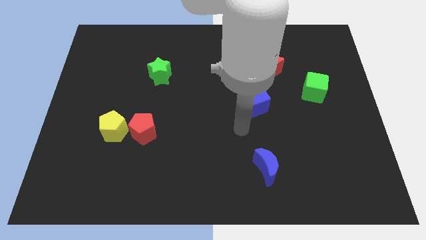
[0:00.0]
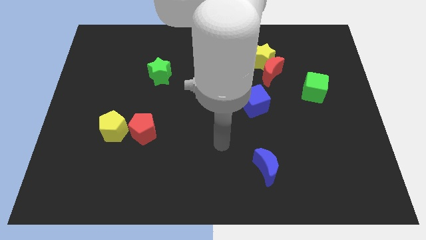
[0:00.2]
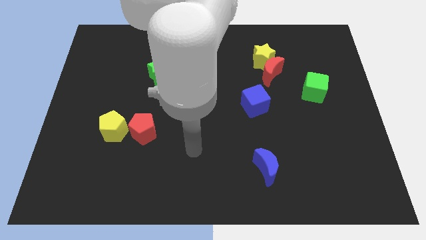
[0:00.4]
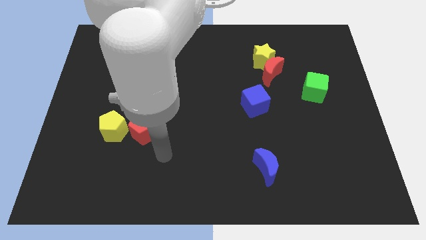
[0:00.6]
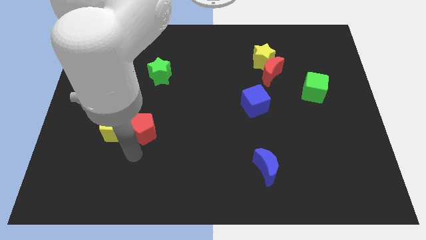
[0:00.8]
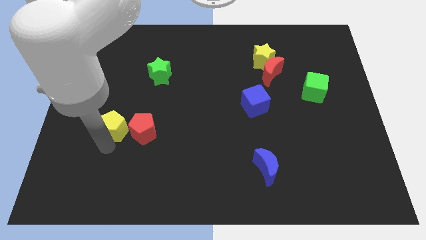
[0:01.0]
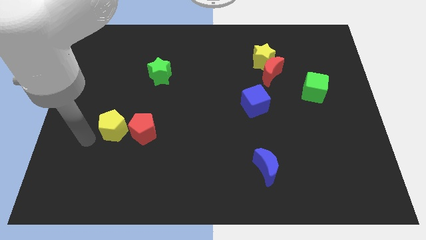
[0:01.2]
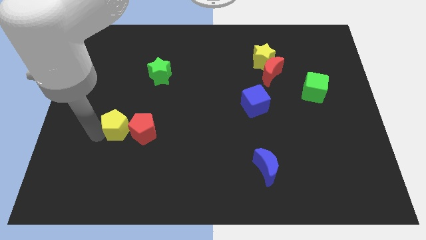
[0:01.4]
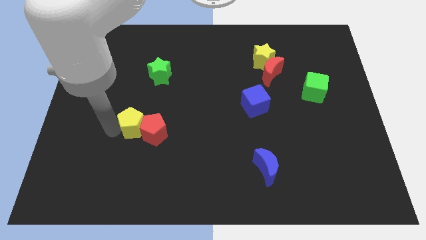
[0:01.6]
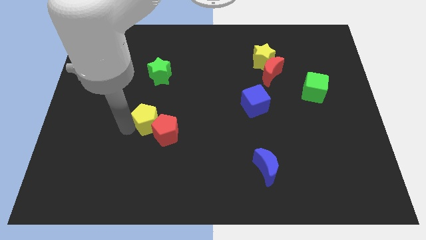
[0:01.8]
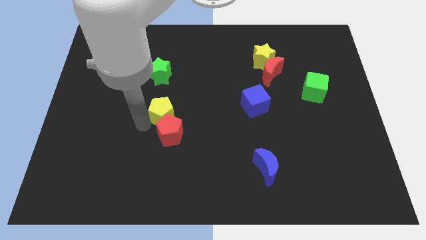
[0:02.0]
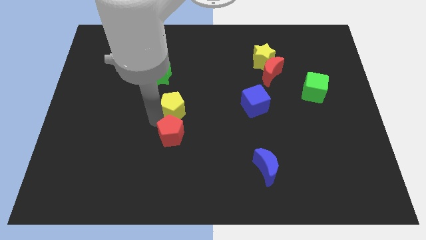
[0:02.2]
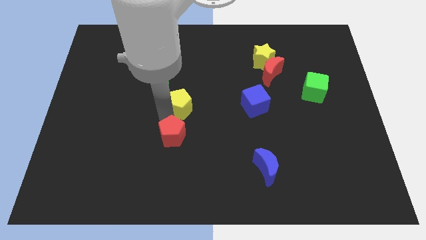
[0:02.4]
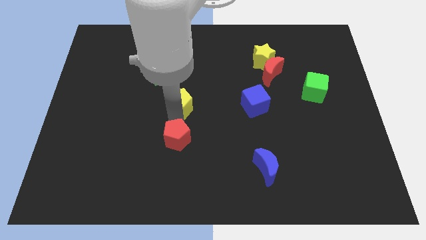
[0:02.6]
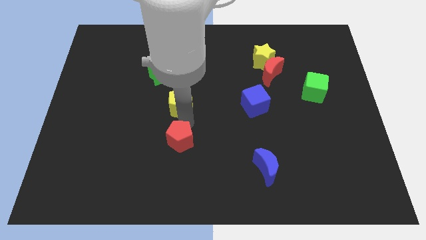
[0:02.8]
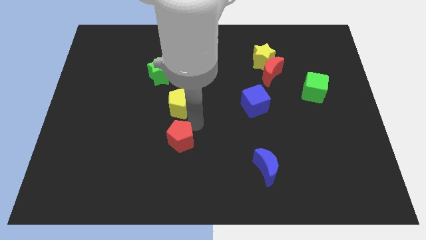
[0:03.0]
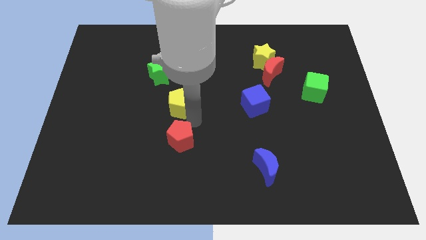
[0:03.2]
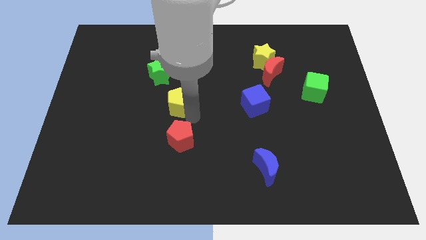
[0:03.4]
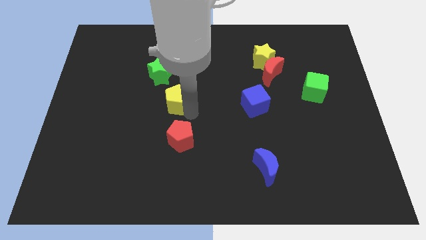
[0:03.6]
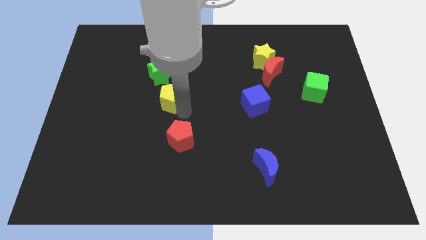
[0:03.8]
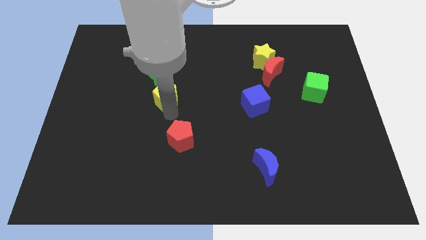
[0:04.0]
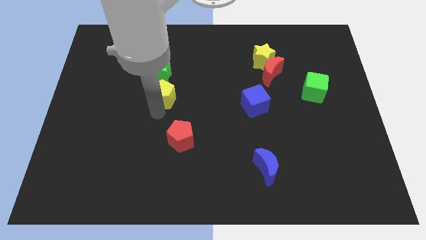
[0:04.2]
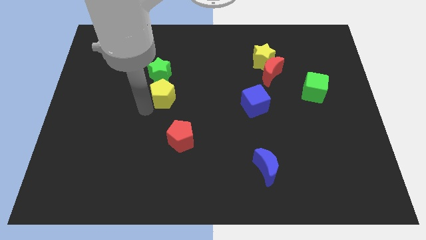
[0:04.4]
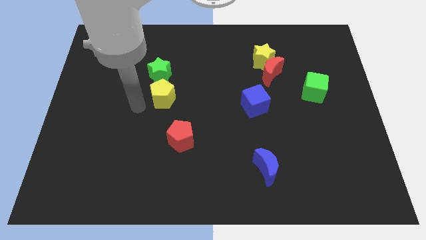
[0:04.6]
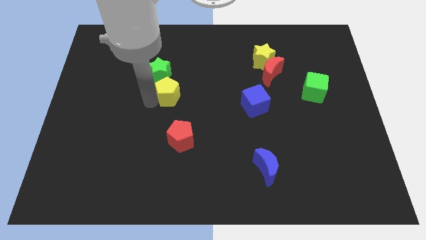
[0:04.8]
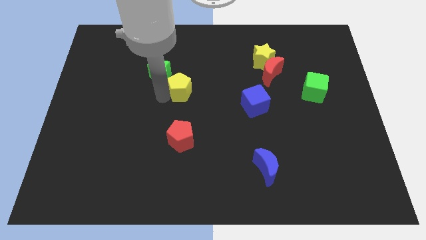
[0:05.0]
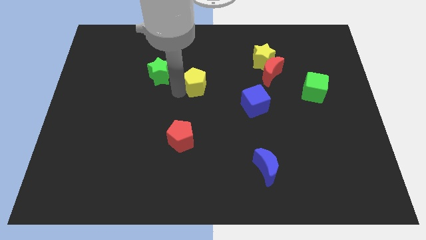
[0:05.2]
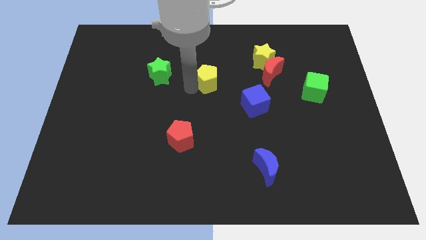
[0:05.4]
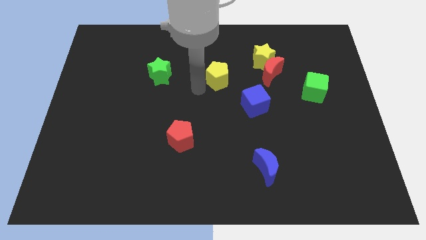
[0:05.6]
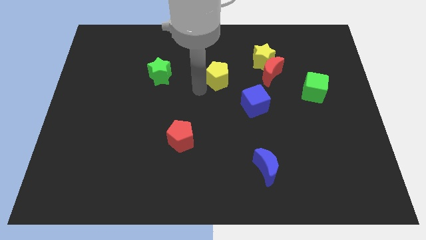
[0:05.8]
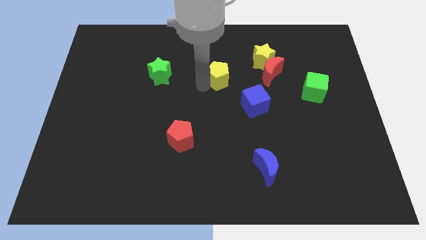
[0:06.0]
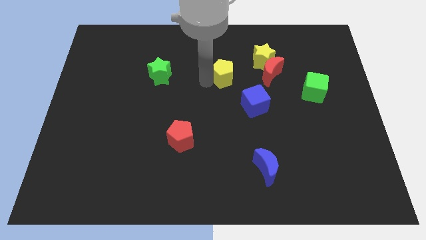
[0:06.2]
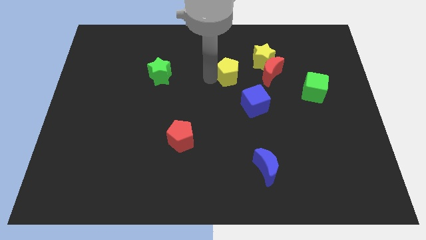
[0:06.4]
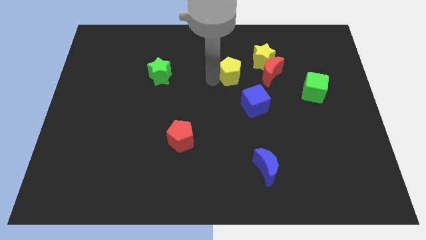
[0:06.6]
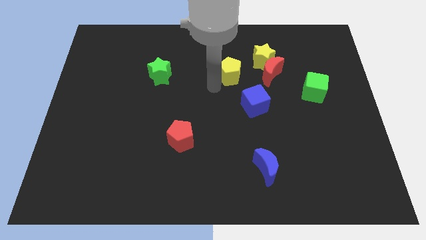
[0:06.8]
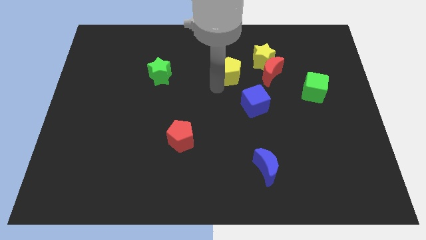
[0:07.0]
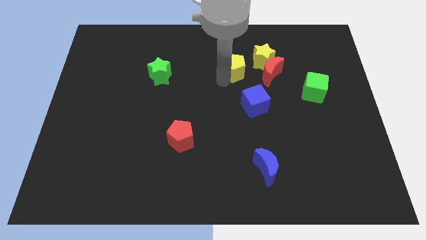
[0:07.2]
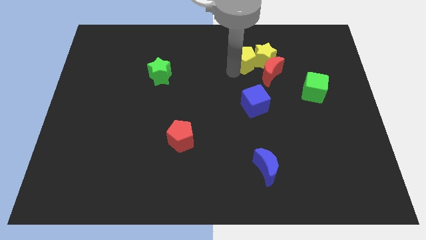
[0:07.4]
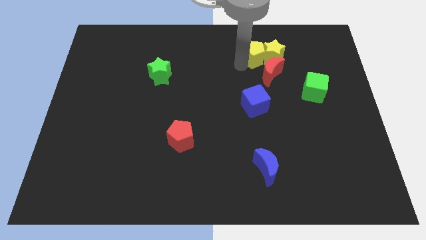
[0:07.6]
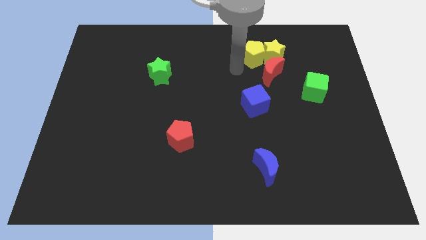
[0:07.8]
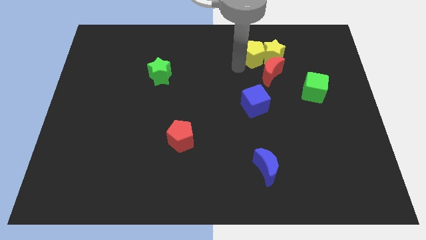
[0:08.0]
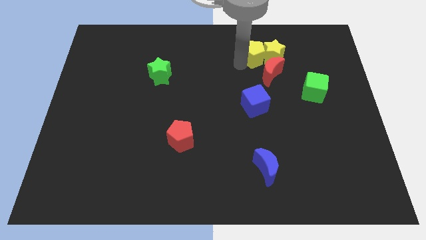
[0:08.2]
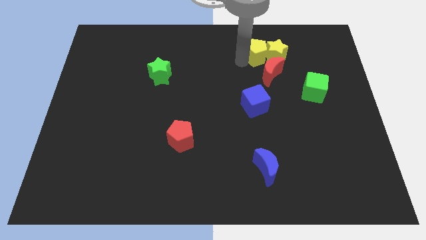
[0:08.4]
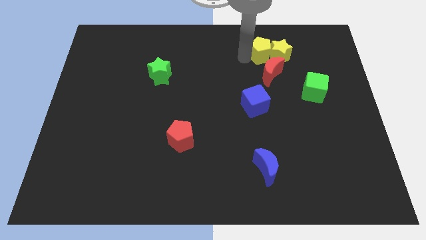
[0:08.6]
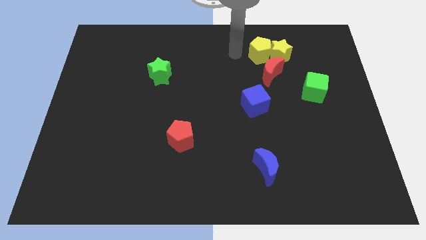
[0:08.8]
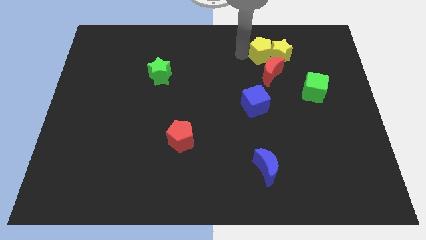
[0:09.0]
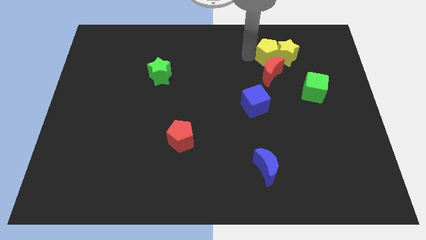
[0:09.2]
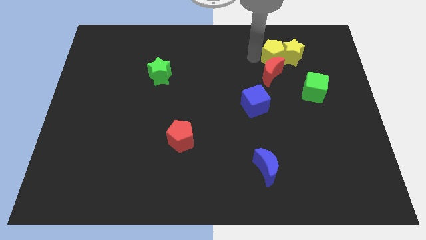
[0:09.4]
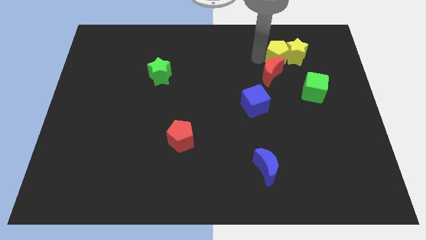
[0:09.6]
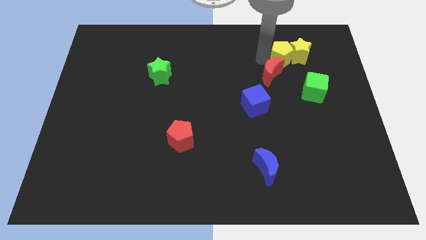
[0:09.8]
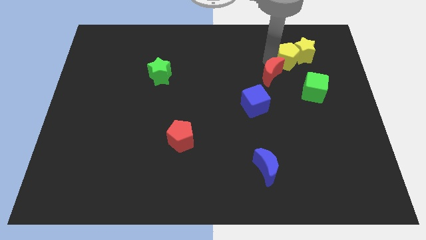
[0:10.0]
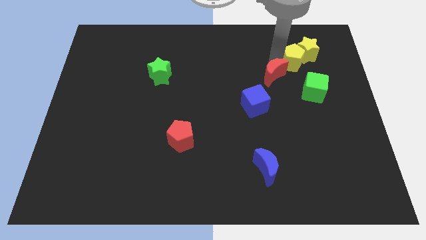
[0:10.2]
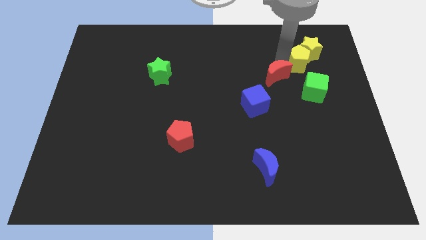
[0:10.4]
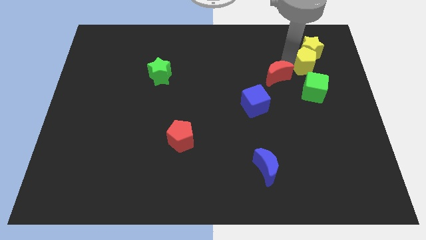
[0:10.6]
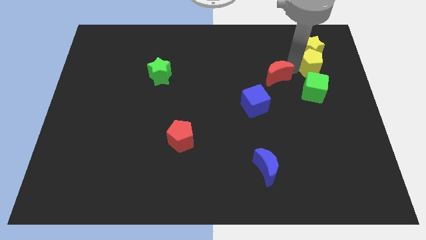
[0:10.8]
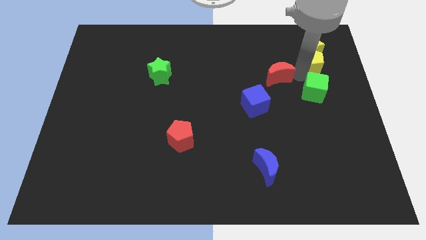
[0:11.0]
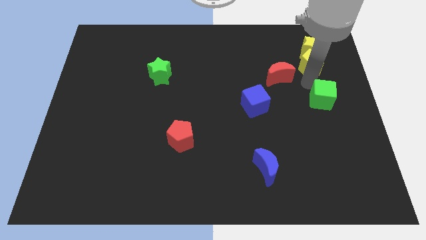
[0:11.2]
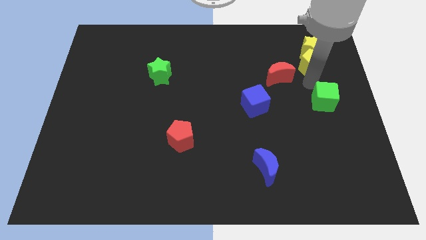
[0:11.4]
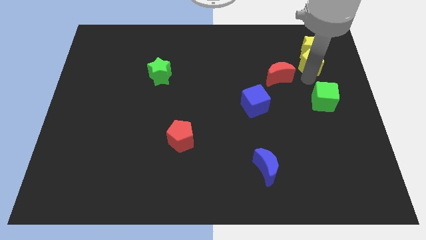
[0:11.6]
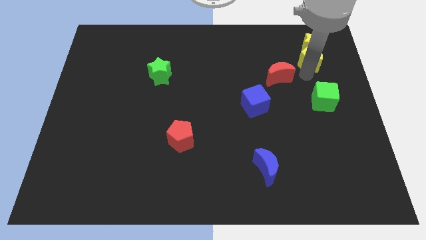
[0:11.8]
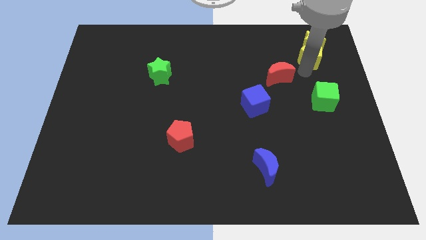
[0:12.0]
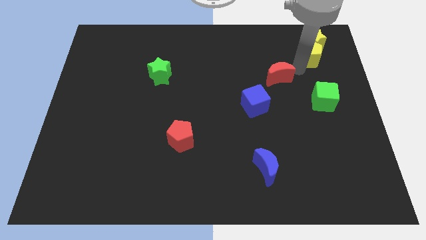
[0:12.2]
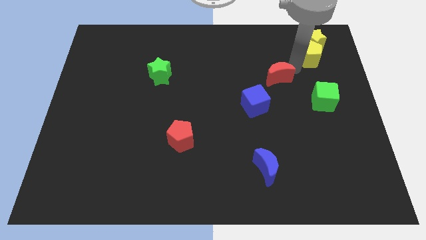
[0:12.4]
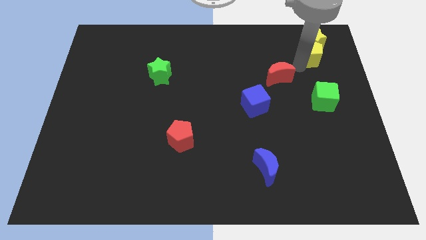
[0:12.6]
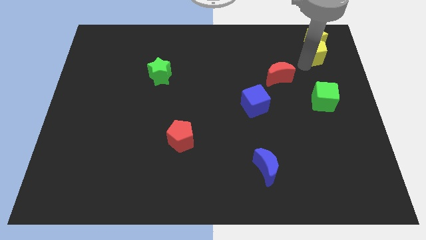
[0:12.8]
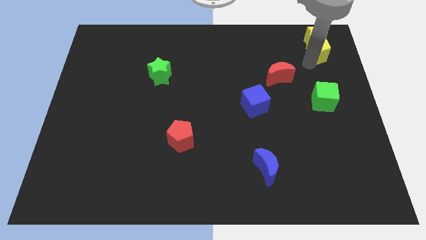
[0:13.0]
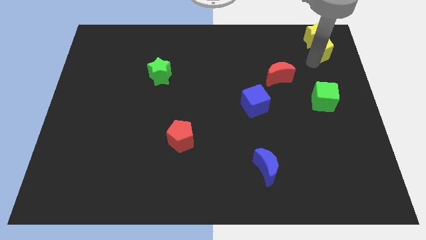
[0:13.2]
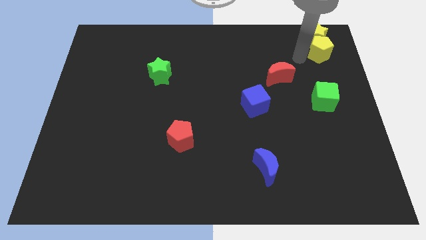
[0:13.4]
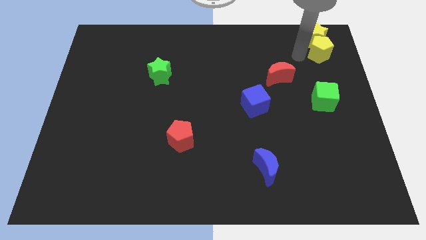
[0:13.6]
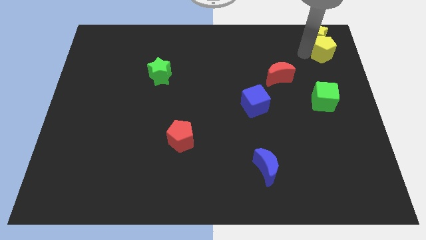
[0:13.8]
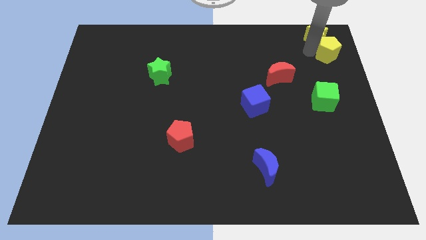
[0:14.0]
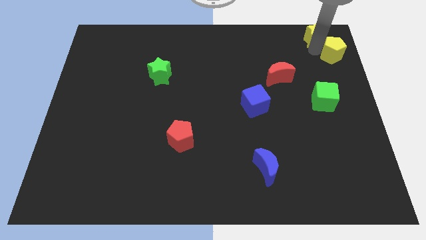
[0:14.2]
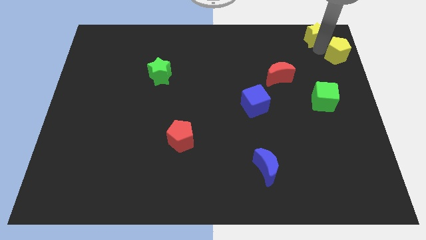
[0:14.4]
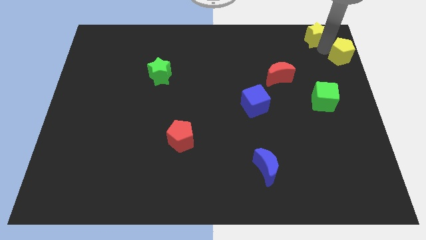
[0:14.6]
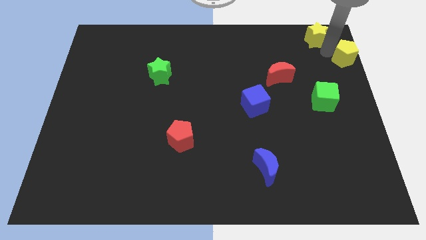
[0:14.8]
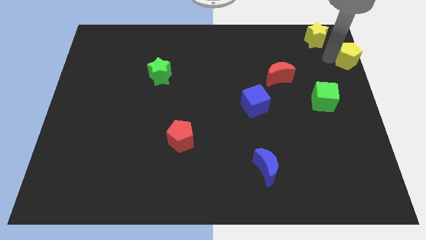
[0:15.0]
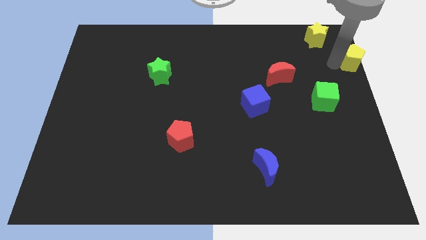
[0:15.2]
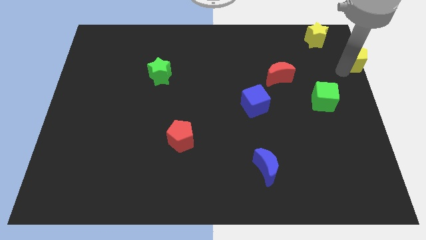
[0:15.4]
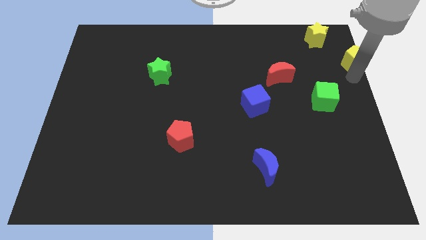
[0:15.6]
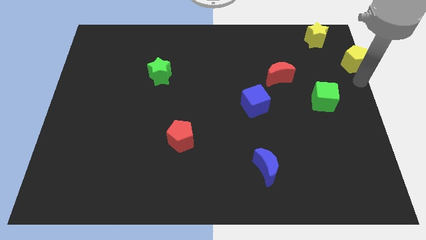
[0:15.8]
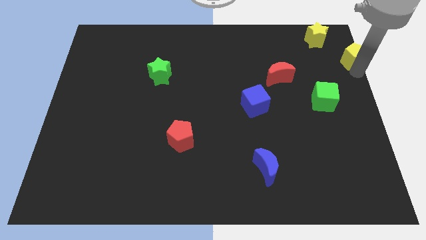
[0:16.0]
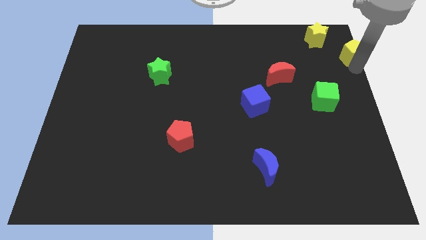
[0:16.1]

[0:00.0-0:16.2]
push the yellow pentagon to the top right
